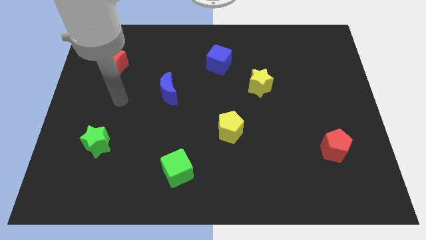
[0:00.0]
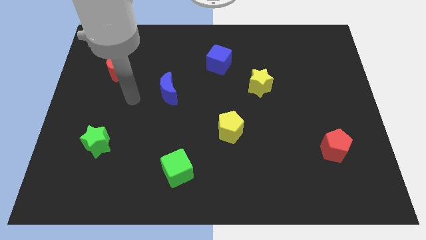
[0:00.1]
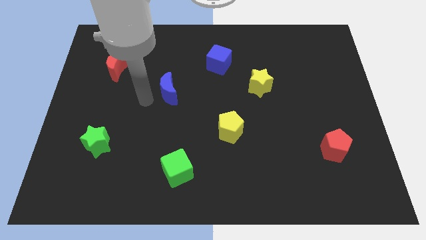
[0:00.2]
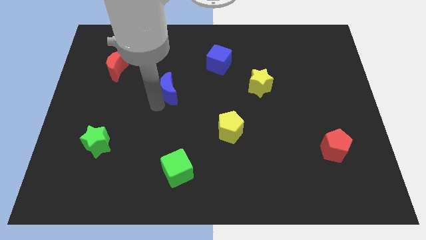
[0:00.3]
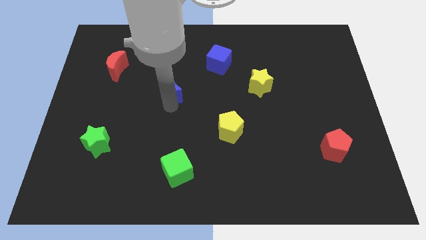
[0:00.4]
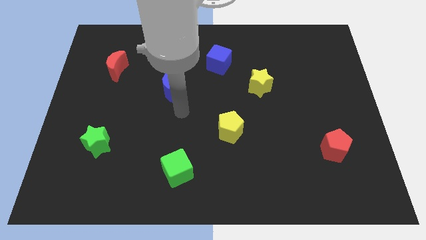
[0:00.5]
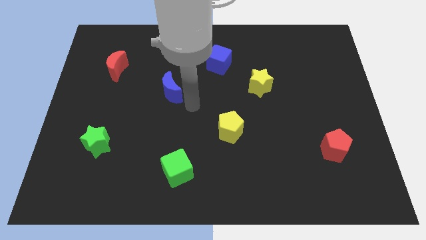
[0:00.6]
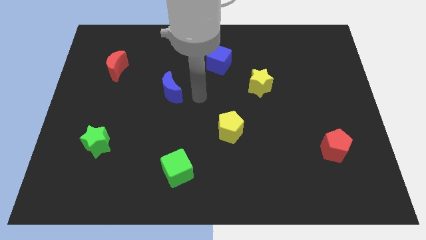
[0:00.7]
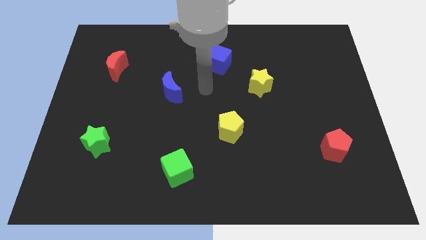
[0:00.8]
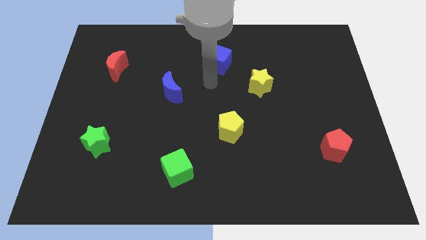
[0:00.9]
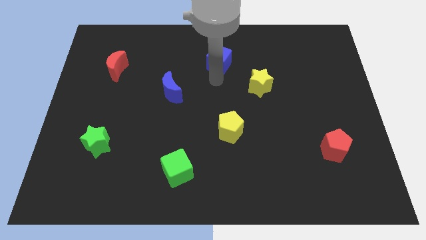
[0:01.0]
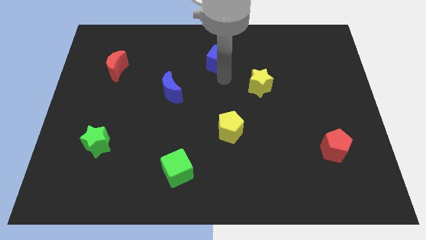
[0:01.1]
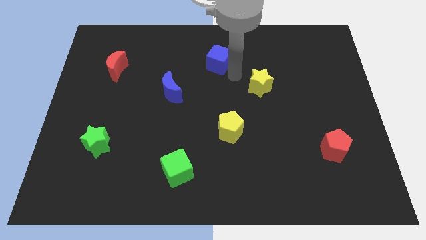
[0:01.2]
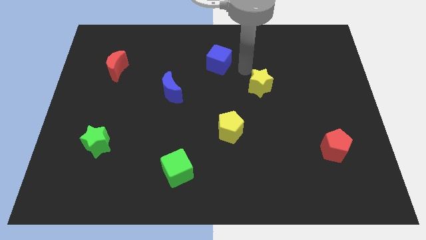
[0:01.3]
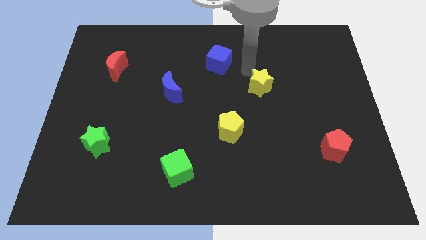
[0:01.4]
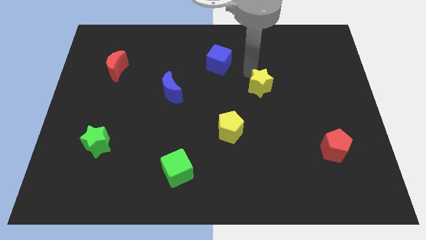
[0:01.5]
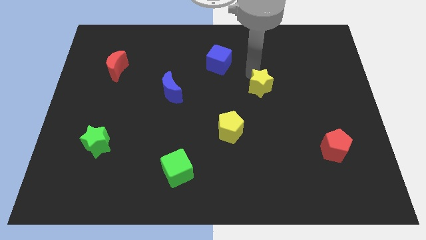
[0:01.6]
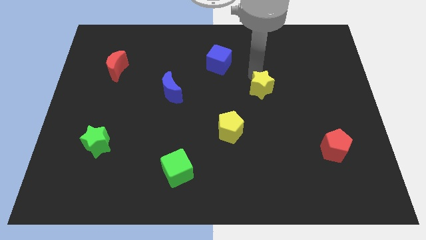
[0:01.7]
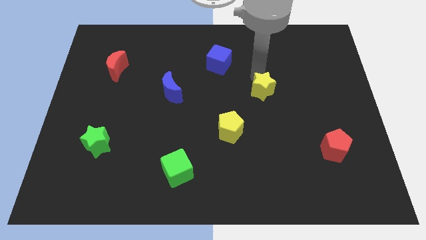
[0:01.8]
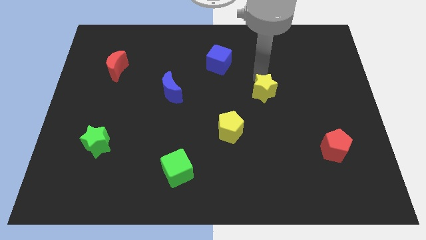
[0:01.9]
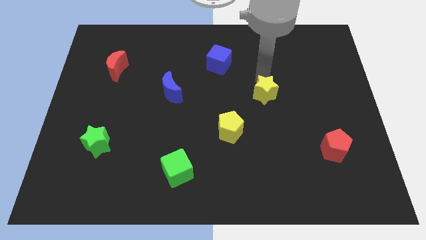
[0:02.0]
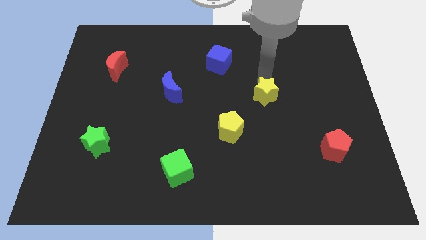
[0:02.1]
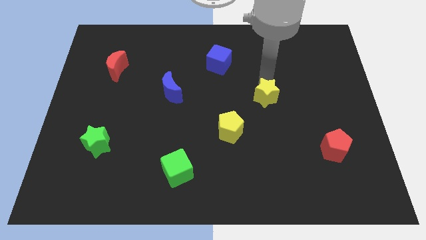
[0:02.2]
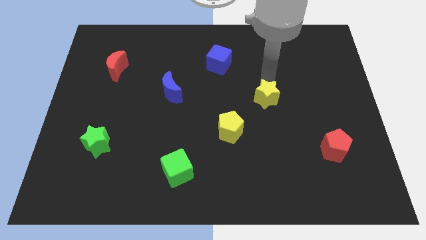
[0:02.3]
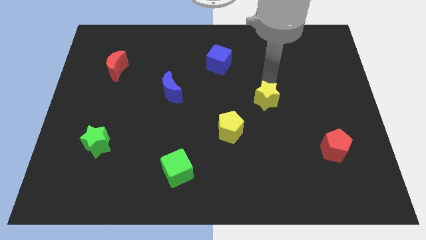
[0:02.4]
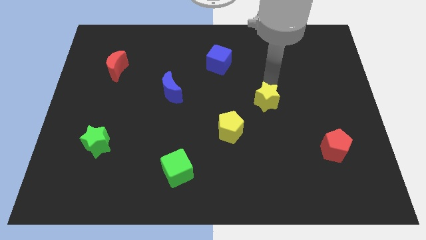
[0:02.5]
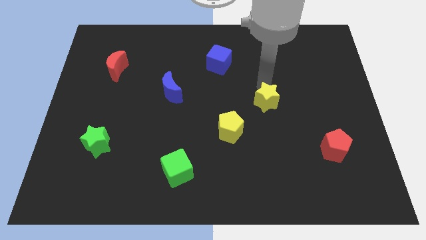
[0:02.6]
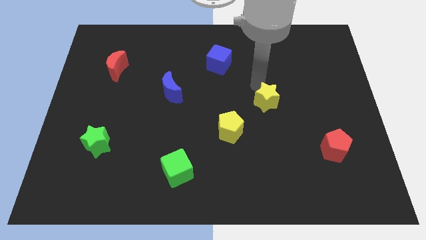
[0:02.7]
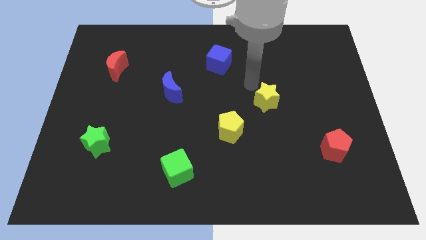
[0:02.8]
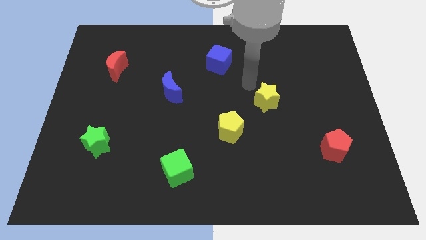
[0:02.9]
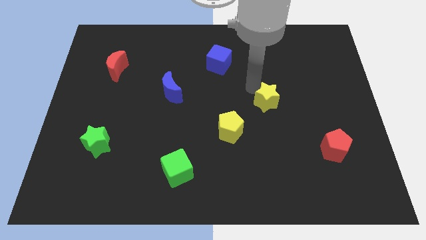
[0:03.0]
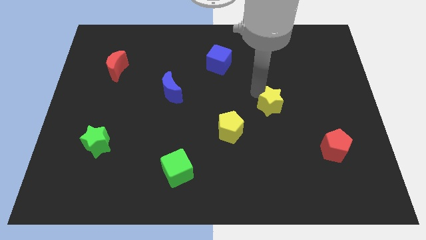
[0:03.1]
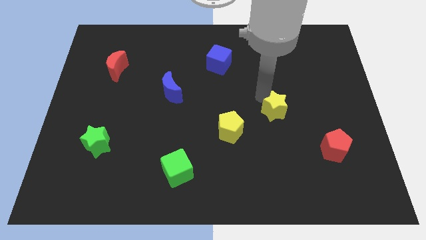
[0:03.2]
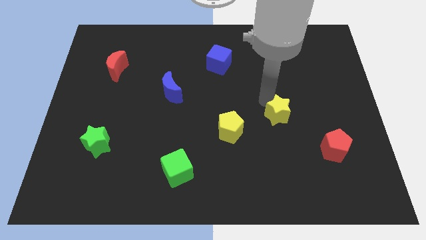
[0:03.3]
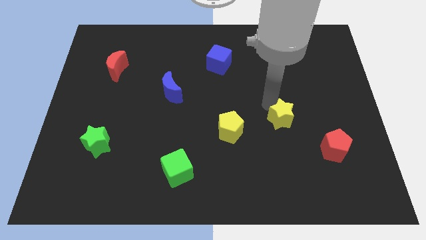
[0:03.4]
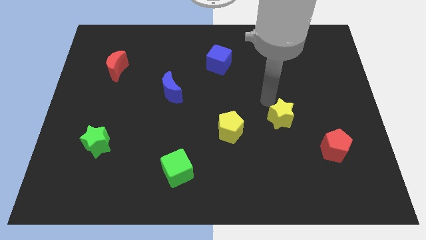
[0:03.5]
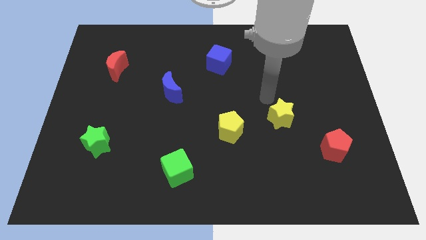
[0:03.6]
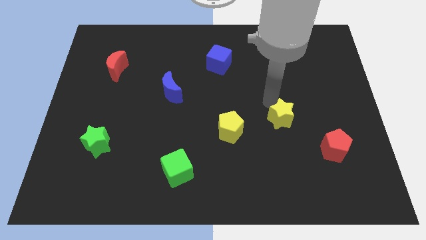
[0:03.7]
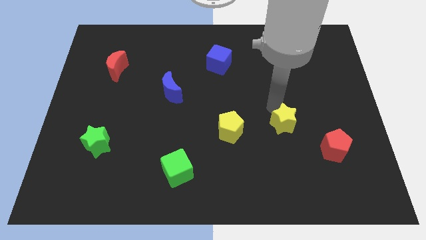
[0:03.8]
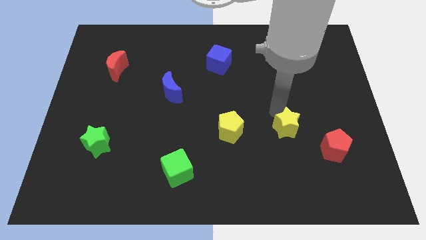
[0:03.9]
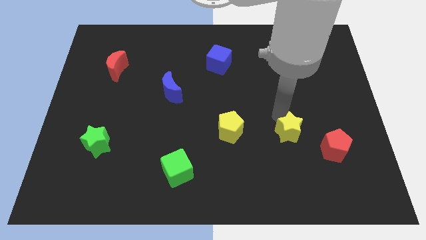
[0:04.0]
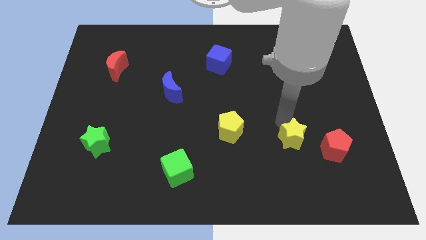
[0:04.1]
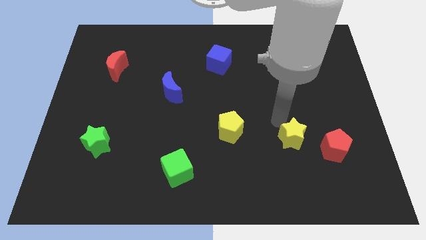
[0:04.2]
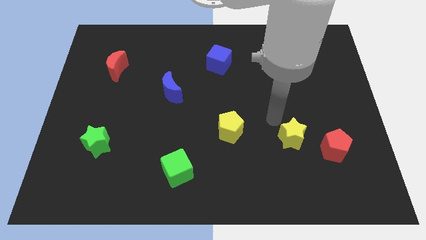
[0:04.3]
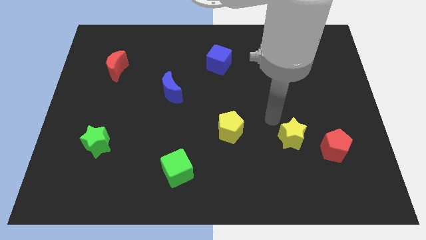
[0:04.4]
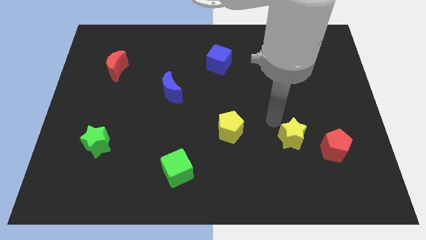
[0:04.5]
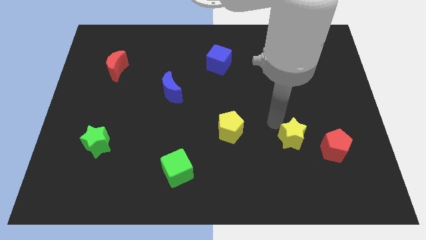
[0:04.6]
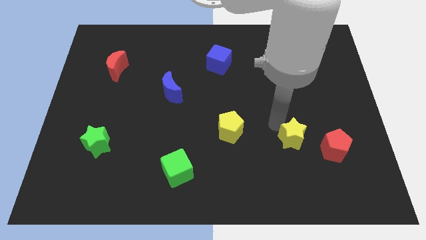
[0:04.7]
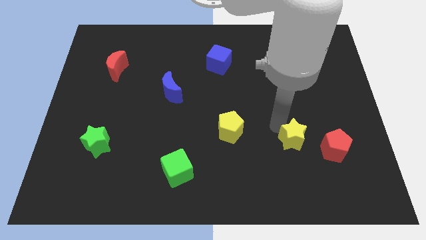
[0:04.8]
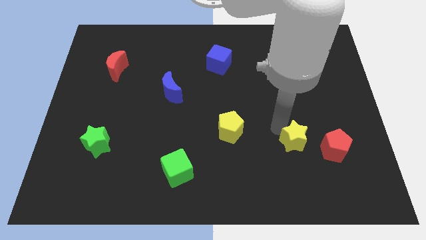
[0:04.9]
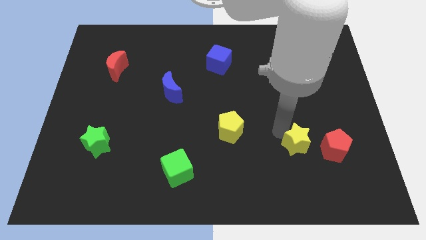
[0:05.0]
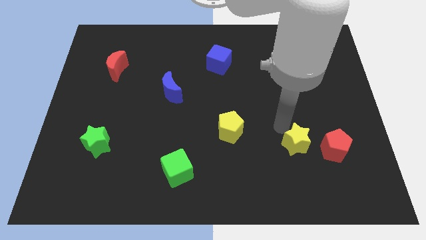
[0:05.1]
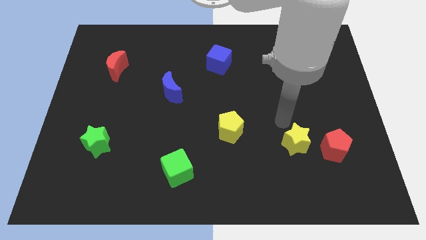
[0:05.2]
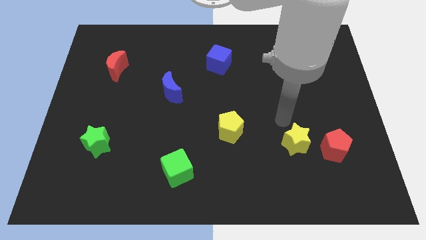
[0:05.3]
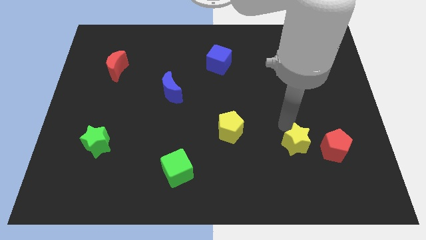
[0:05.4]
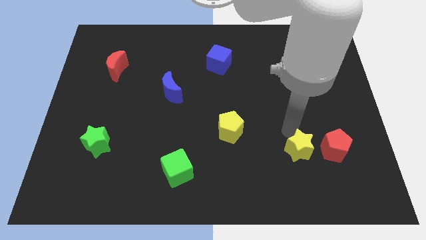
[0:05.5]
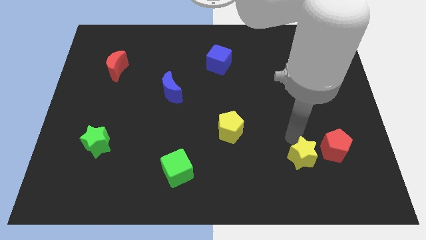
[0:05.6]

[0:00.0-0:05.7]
move the yellow star diagonally down and to the left of the red pentagon

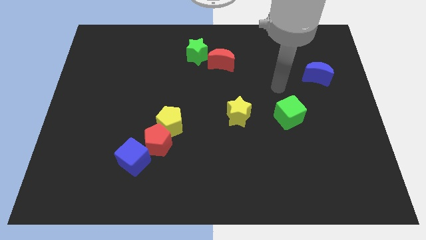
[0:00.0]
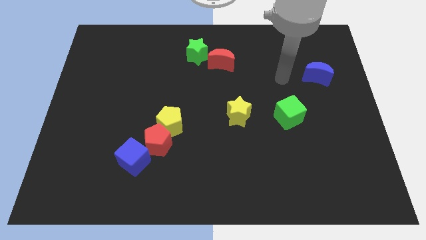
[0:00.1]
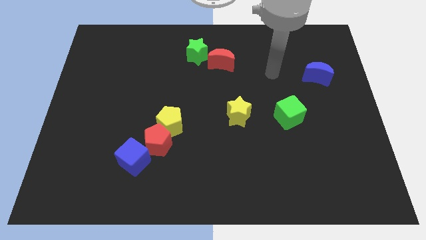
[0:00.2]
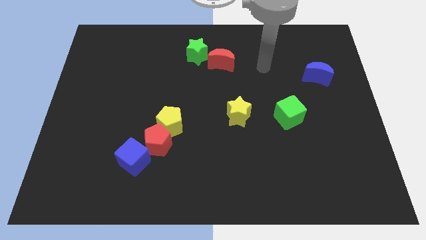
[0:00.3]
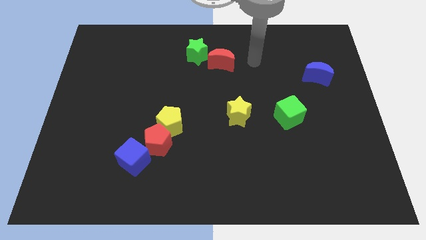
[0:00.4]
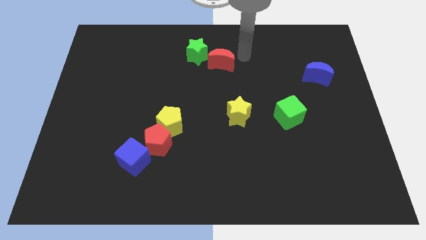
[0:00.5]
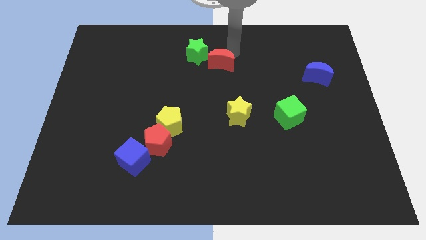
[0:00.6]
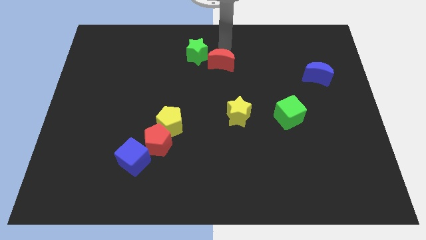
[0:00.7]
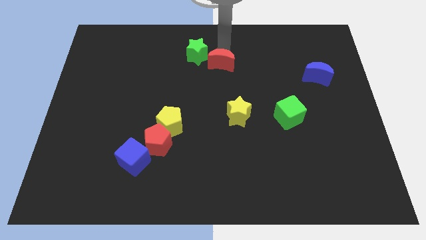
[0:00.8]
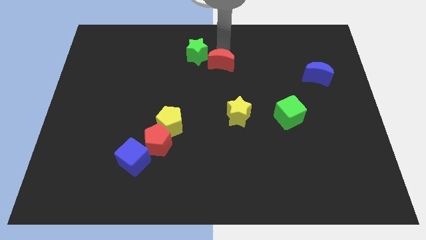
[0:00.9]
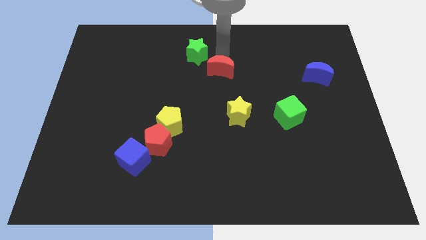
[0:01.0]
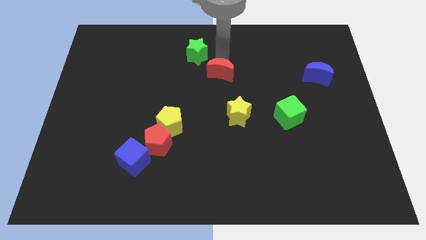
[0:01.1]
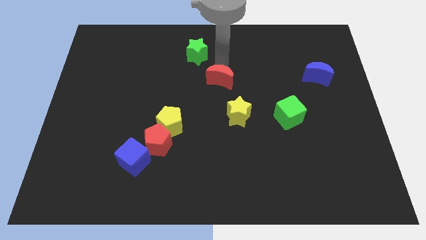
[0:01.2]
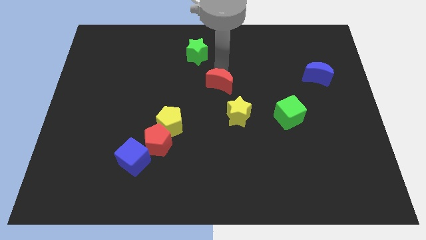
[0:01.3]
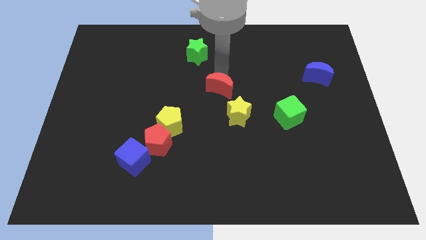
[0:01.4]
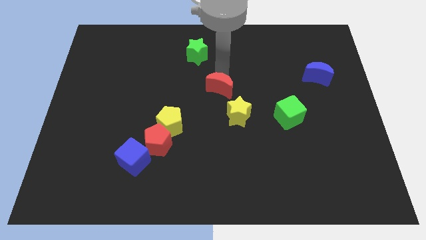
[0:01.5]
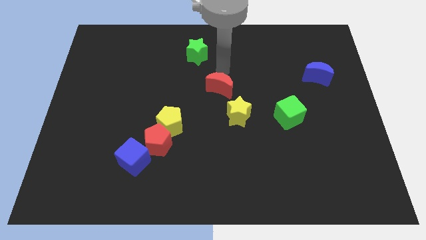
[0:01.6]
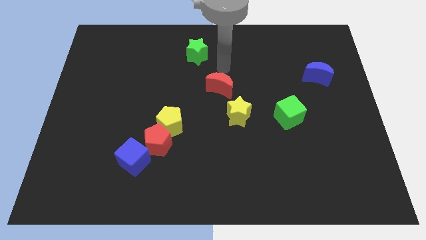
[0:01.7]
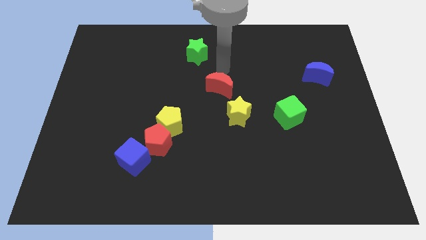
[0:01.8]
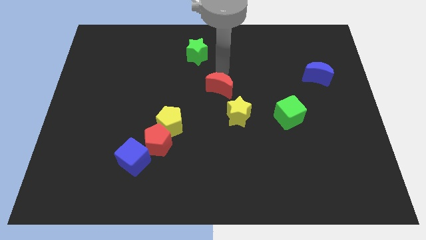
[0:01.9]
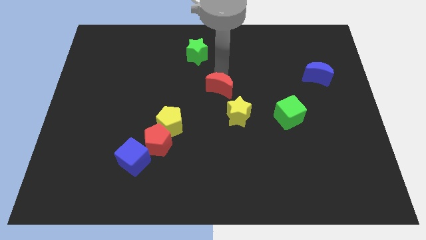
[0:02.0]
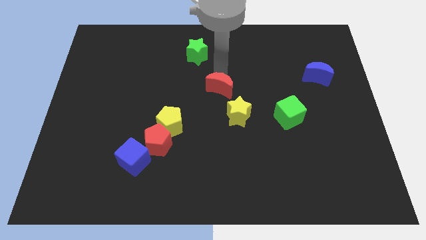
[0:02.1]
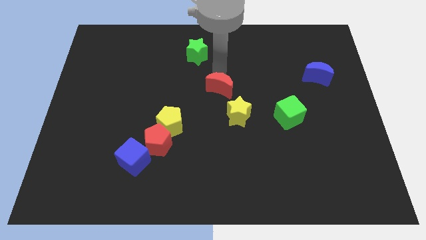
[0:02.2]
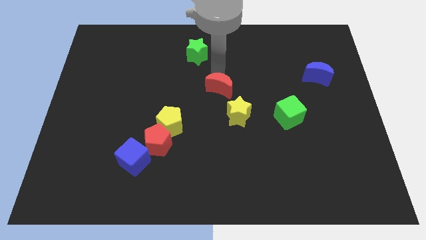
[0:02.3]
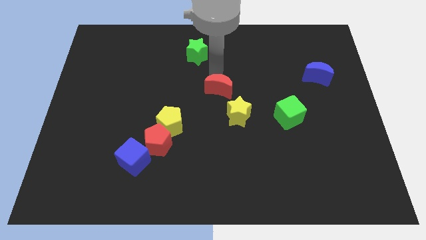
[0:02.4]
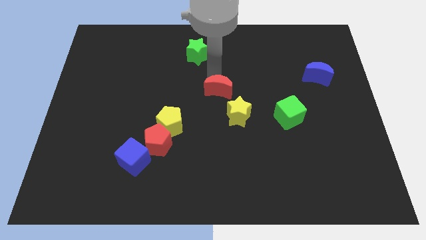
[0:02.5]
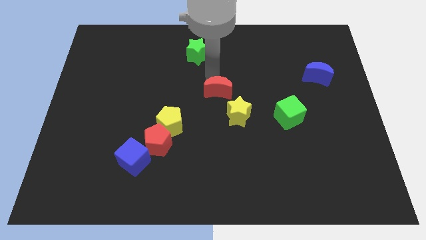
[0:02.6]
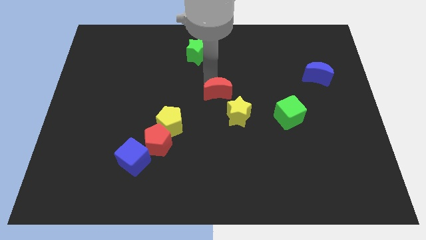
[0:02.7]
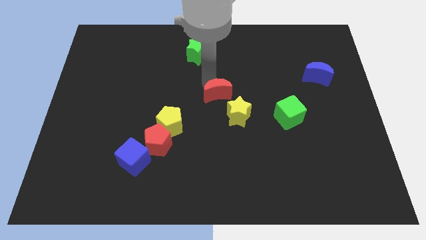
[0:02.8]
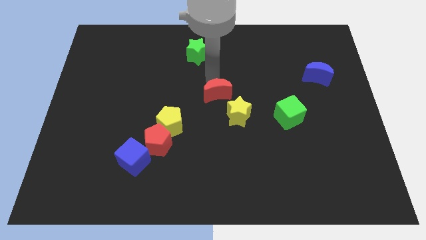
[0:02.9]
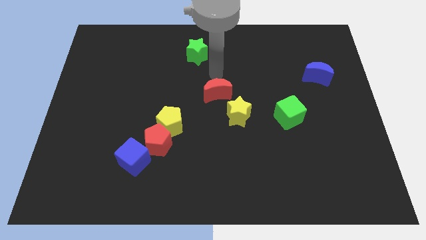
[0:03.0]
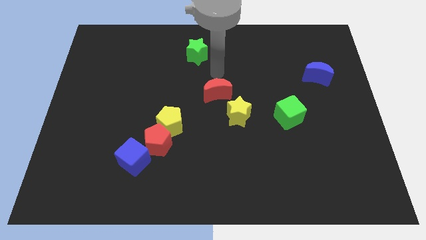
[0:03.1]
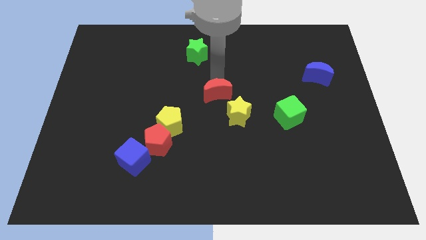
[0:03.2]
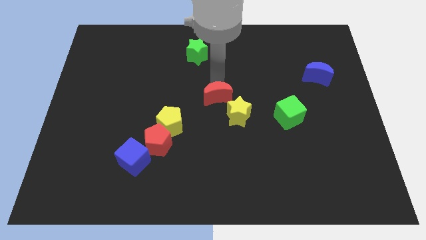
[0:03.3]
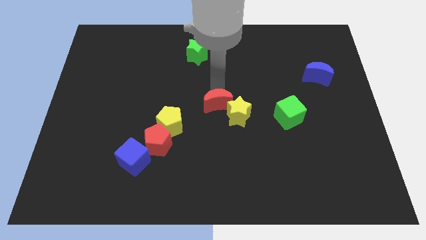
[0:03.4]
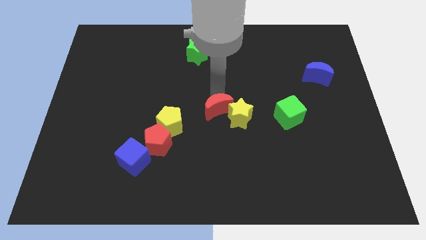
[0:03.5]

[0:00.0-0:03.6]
push the red moon to the right side of the yellow pentagon
